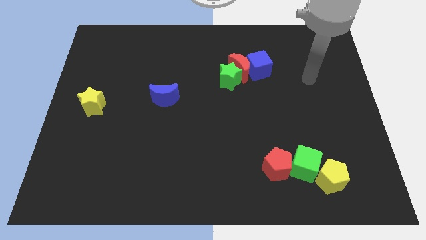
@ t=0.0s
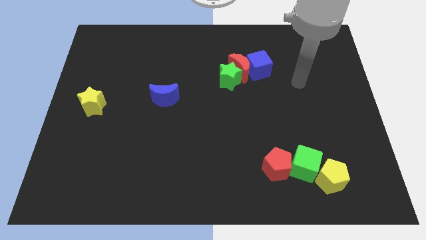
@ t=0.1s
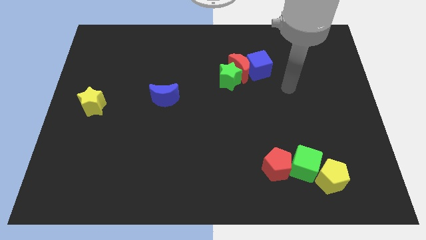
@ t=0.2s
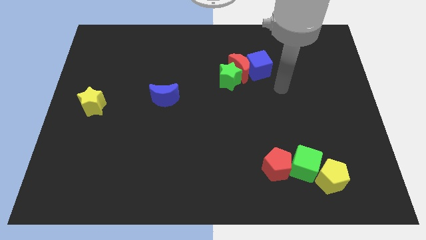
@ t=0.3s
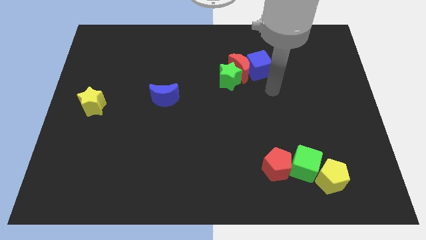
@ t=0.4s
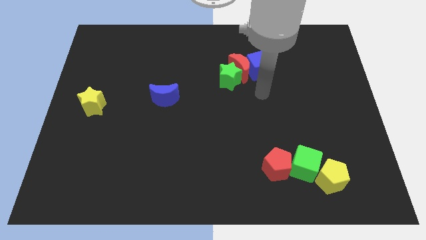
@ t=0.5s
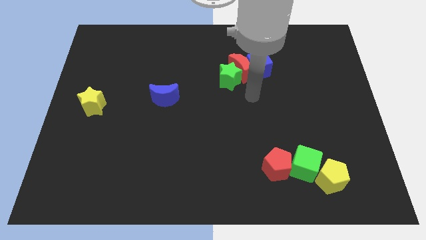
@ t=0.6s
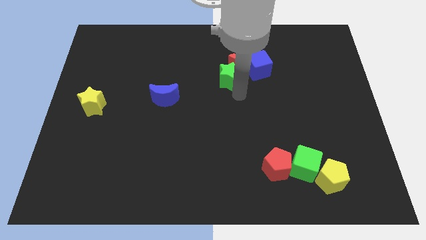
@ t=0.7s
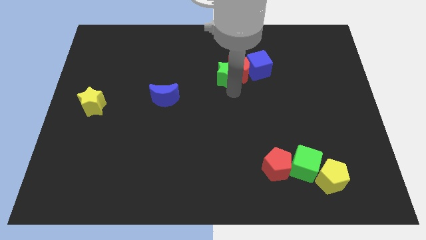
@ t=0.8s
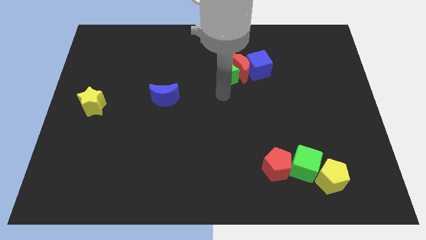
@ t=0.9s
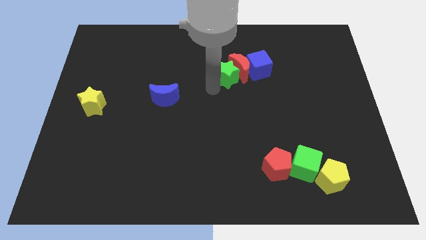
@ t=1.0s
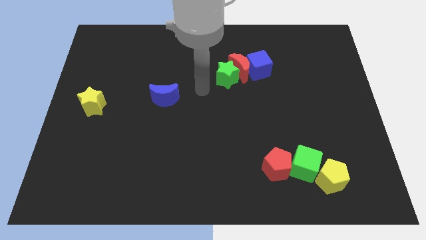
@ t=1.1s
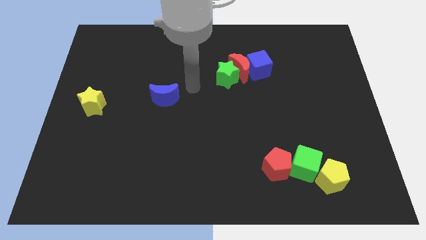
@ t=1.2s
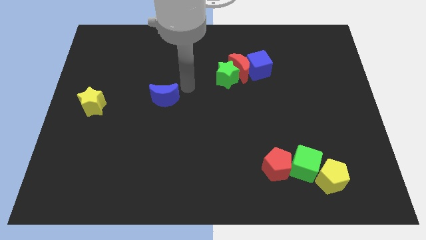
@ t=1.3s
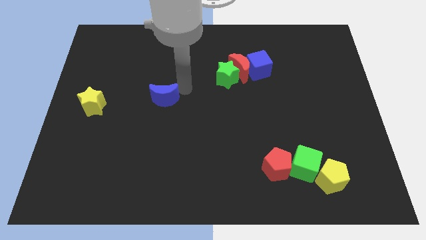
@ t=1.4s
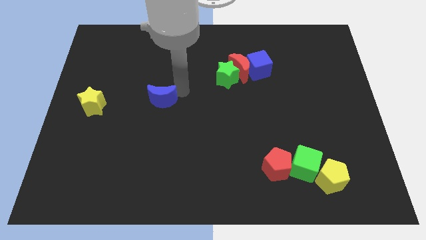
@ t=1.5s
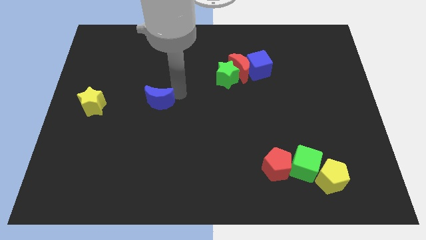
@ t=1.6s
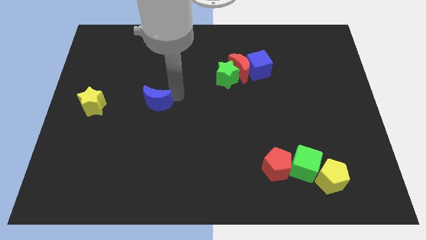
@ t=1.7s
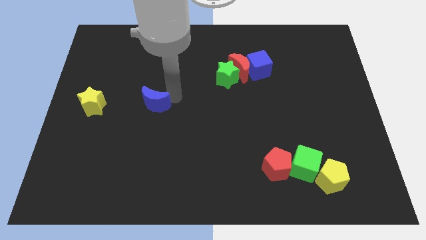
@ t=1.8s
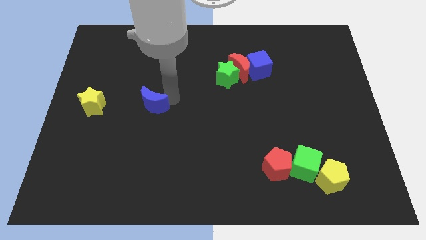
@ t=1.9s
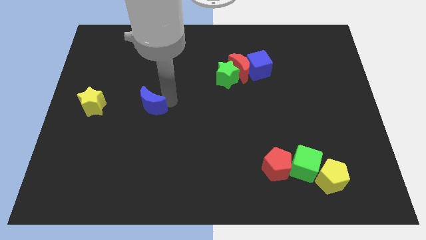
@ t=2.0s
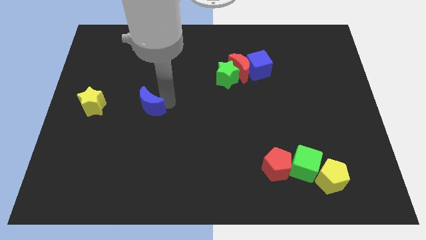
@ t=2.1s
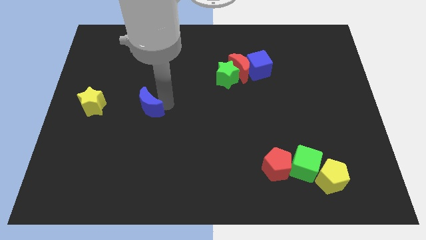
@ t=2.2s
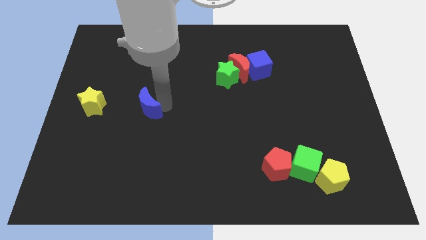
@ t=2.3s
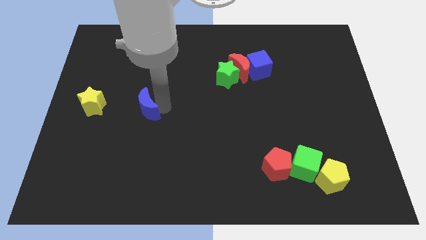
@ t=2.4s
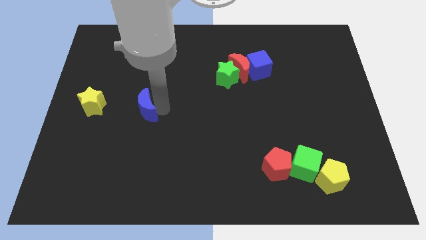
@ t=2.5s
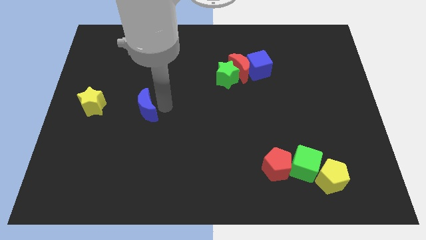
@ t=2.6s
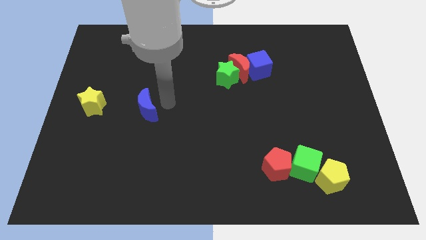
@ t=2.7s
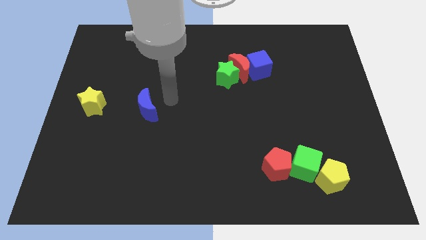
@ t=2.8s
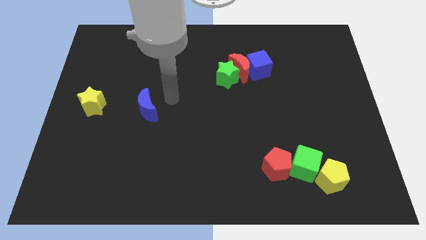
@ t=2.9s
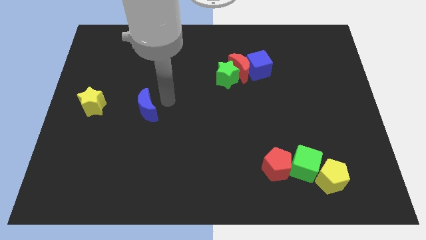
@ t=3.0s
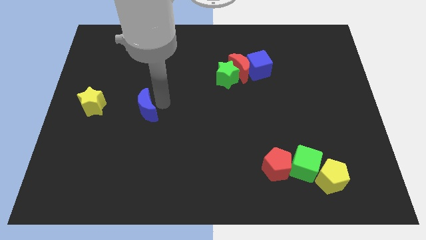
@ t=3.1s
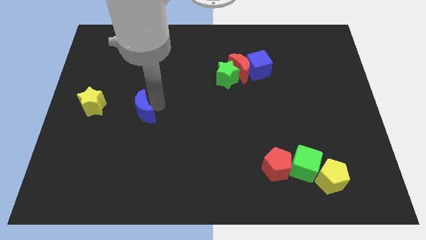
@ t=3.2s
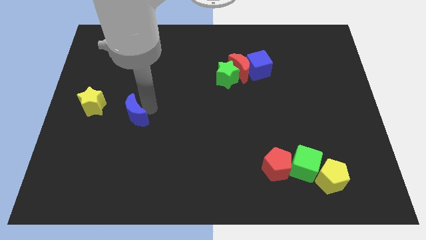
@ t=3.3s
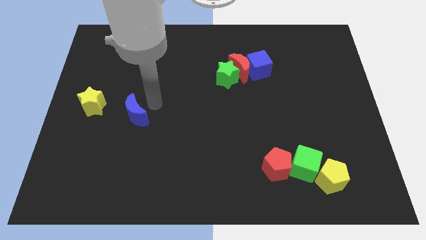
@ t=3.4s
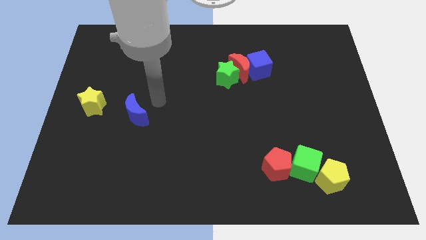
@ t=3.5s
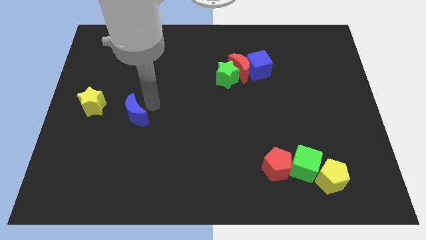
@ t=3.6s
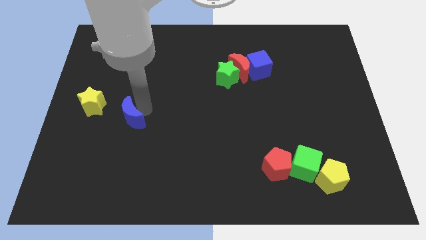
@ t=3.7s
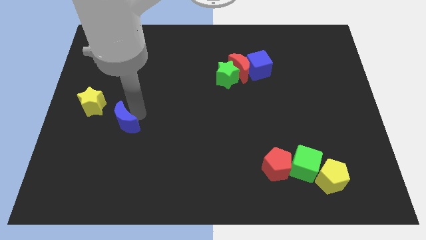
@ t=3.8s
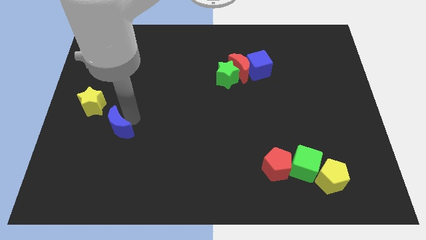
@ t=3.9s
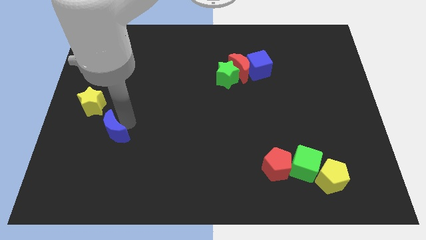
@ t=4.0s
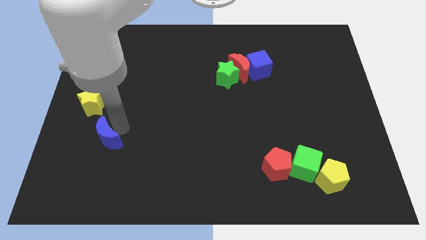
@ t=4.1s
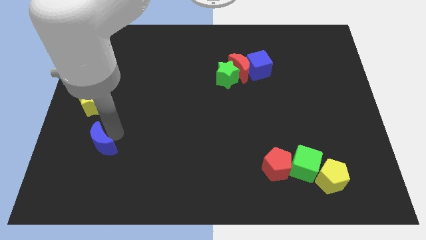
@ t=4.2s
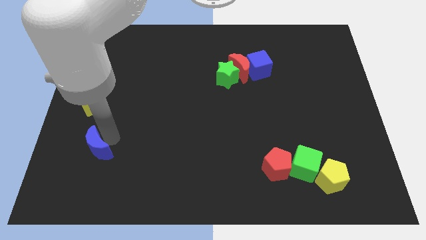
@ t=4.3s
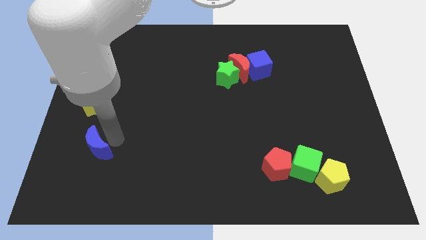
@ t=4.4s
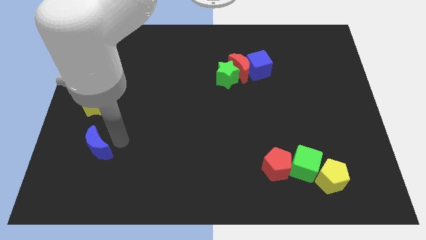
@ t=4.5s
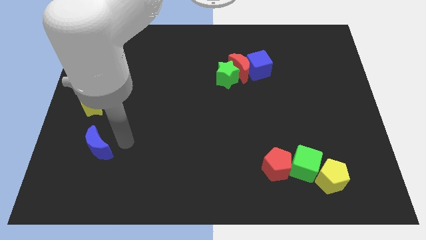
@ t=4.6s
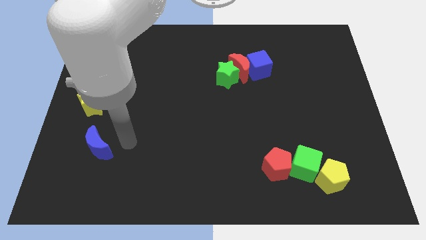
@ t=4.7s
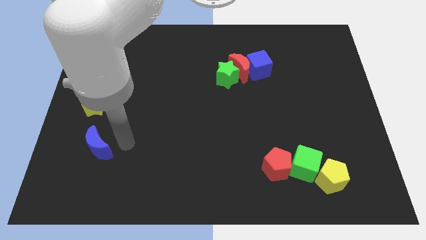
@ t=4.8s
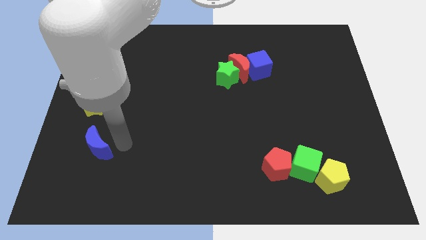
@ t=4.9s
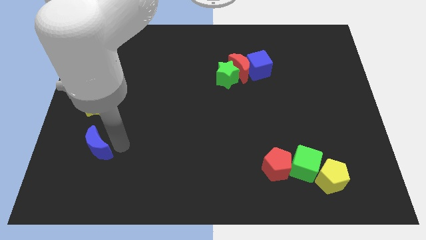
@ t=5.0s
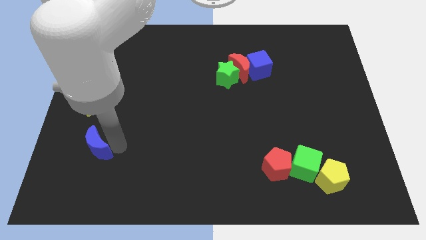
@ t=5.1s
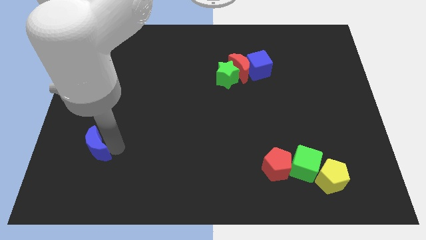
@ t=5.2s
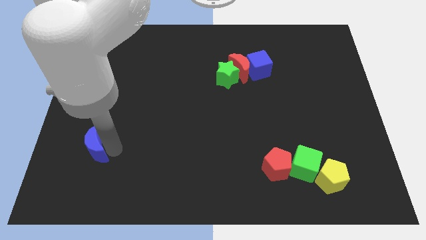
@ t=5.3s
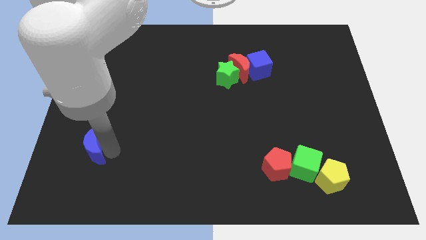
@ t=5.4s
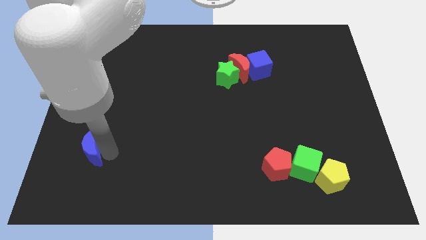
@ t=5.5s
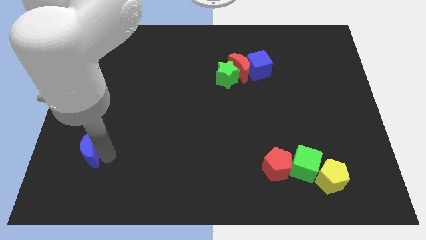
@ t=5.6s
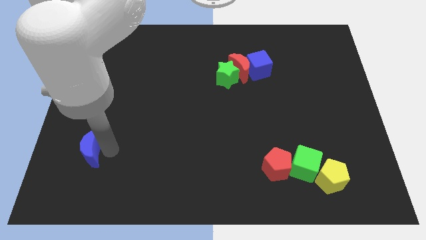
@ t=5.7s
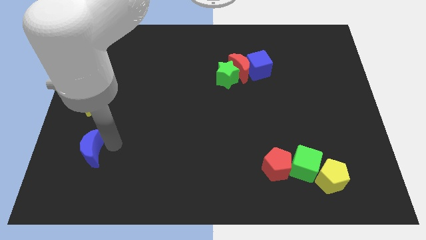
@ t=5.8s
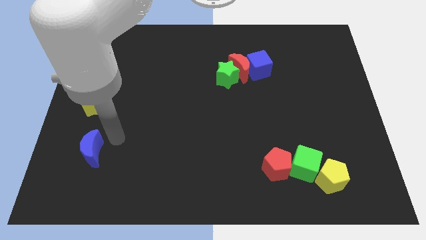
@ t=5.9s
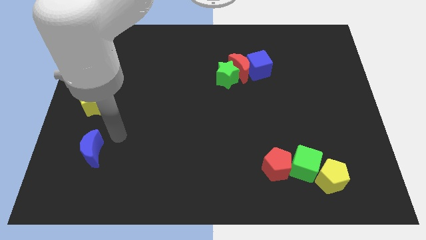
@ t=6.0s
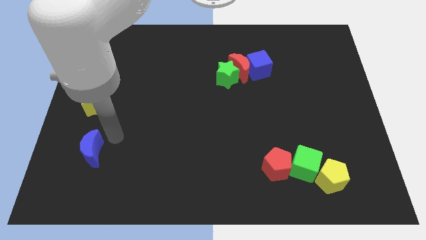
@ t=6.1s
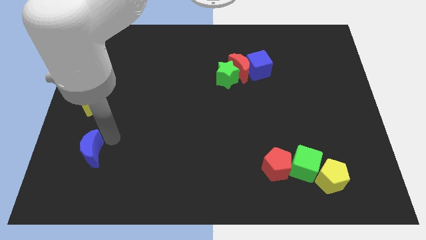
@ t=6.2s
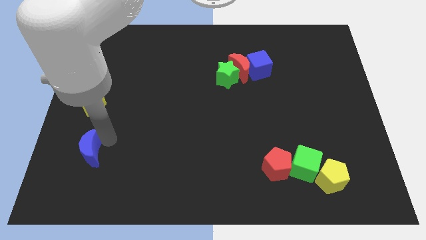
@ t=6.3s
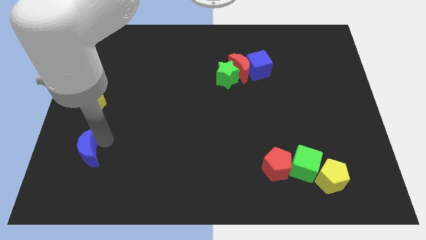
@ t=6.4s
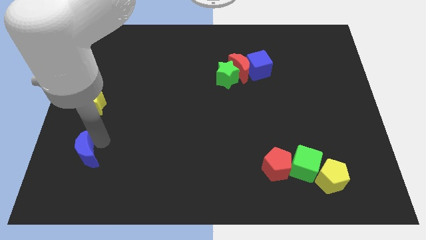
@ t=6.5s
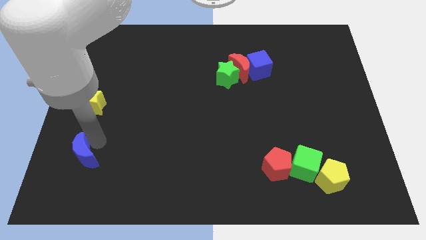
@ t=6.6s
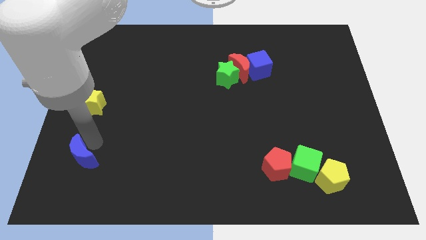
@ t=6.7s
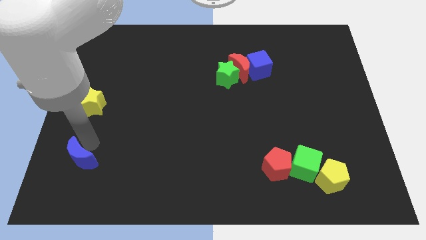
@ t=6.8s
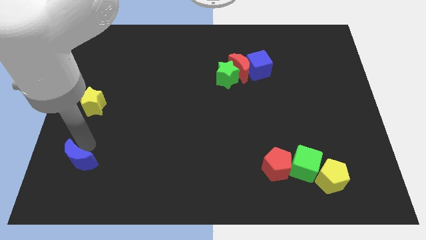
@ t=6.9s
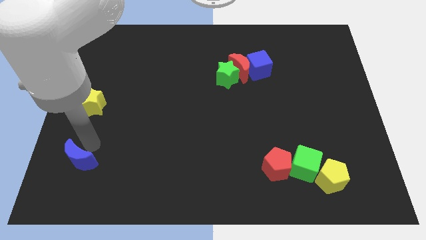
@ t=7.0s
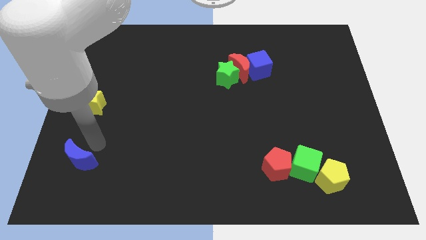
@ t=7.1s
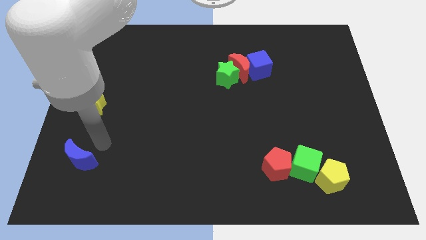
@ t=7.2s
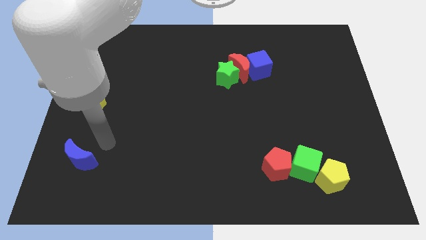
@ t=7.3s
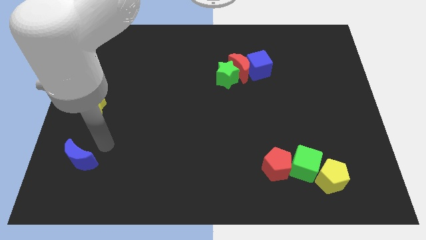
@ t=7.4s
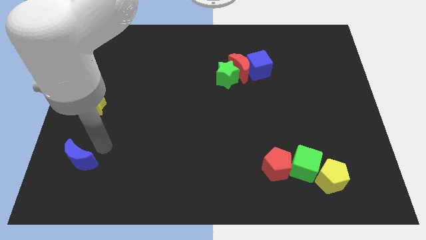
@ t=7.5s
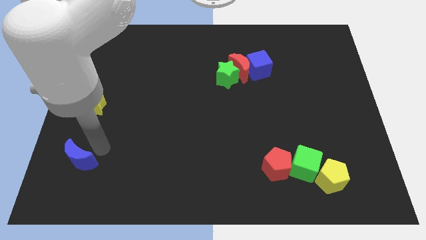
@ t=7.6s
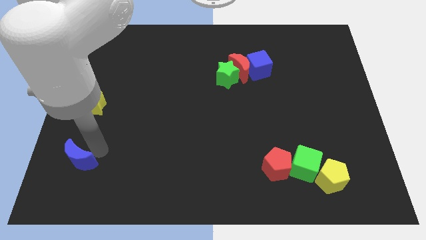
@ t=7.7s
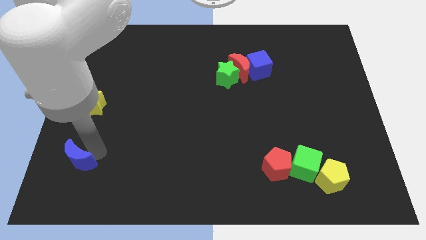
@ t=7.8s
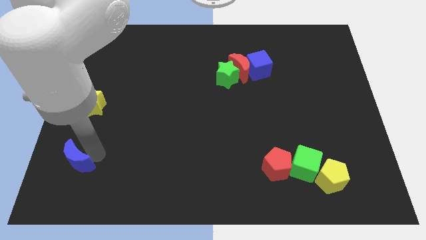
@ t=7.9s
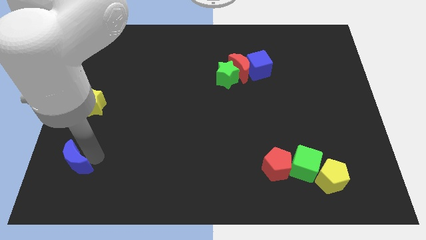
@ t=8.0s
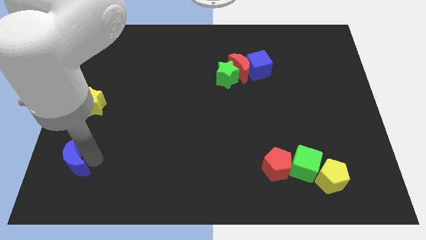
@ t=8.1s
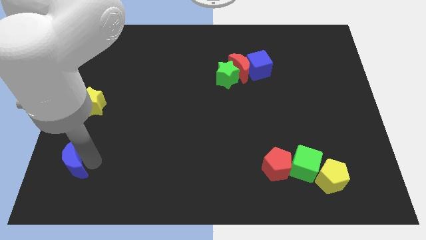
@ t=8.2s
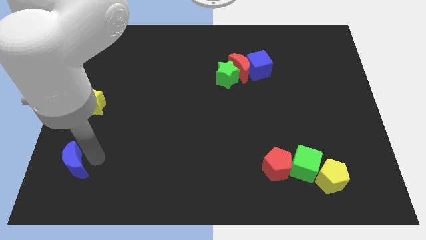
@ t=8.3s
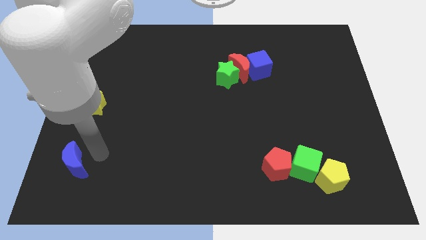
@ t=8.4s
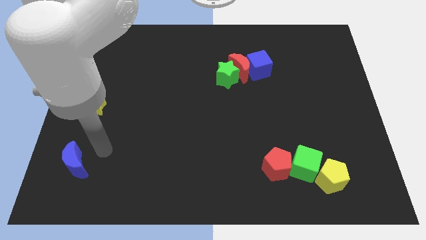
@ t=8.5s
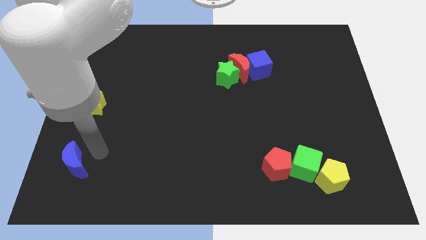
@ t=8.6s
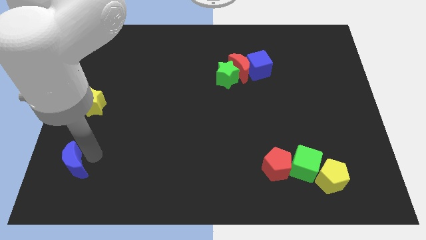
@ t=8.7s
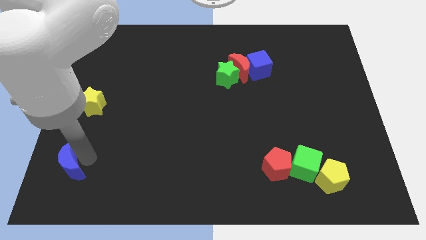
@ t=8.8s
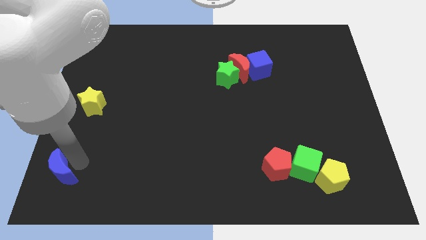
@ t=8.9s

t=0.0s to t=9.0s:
slide the blue moon to the bottom left of the board
